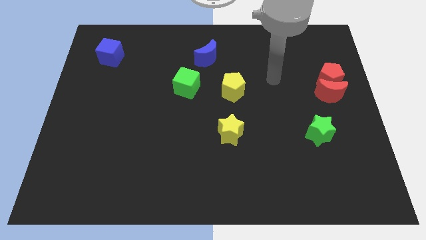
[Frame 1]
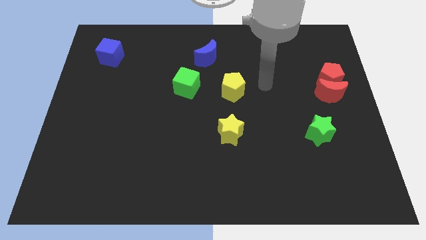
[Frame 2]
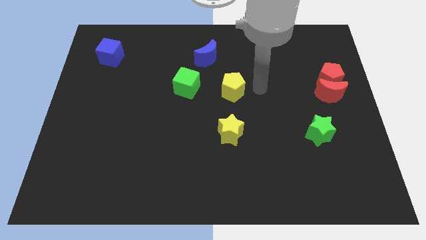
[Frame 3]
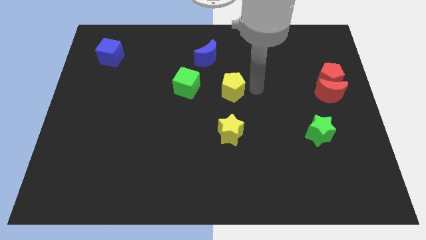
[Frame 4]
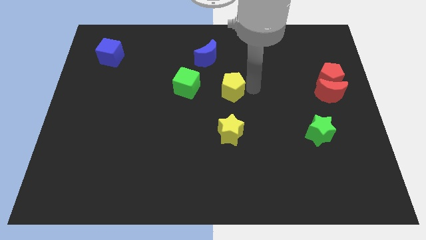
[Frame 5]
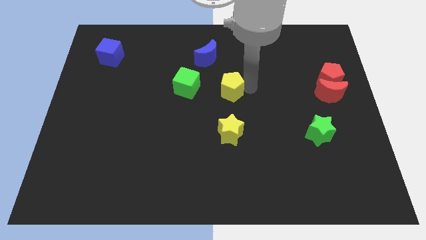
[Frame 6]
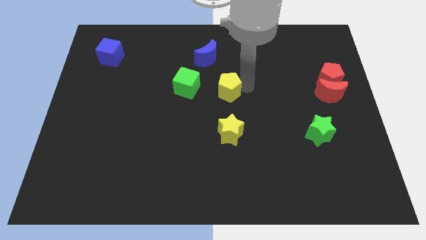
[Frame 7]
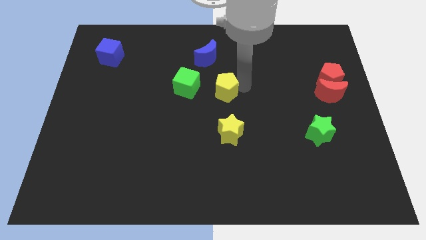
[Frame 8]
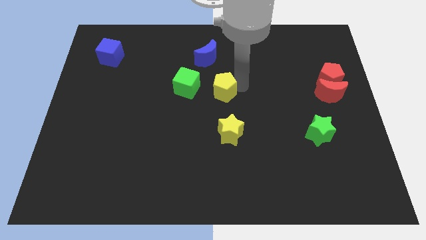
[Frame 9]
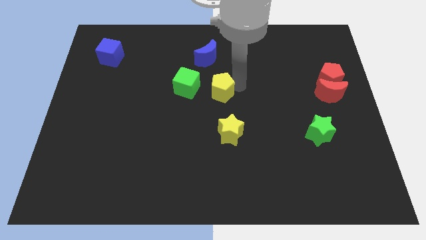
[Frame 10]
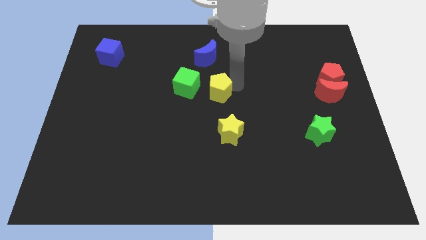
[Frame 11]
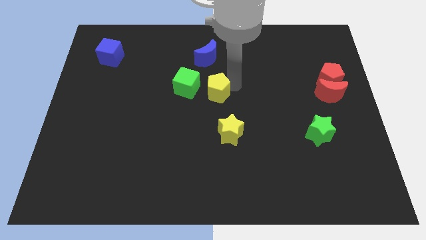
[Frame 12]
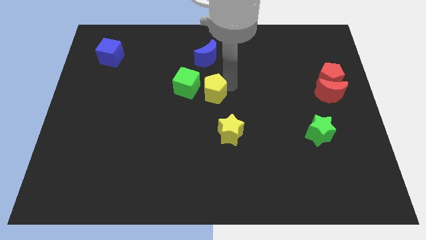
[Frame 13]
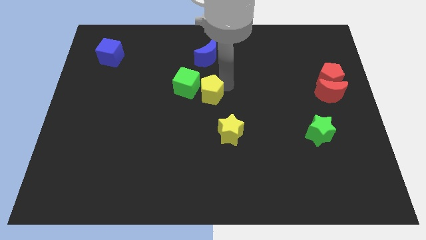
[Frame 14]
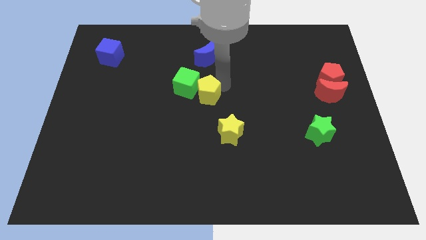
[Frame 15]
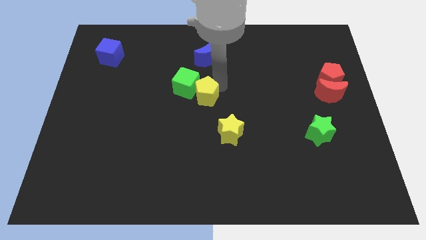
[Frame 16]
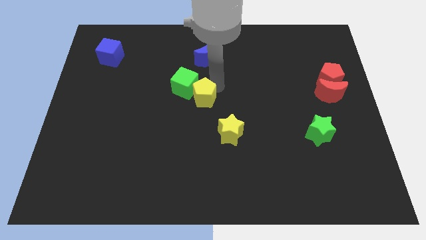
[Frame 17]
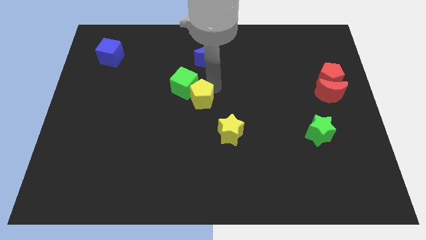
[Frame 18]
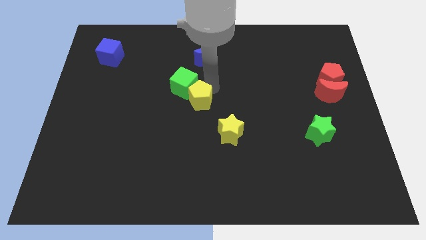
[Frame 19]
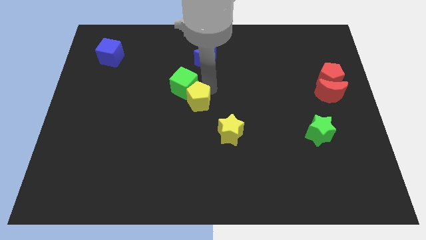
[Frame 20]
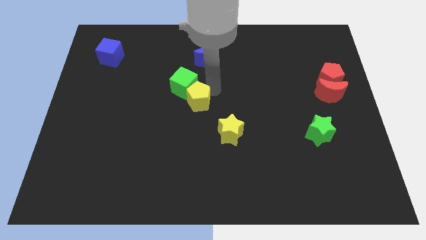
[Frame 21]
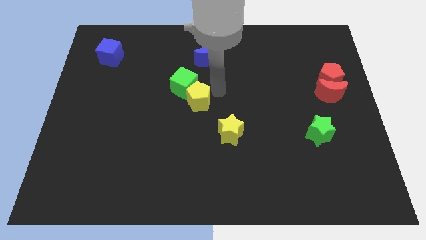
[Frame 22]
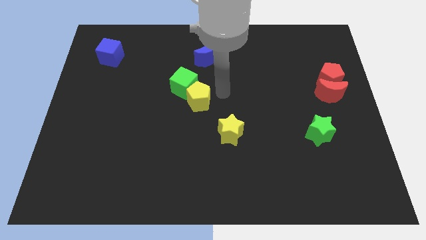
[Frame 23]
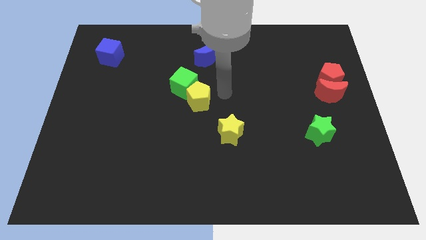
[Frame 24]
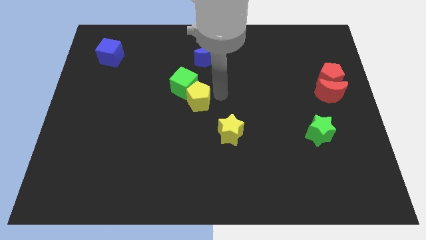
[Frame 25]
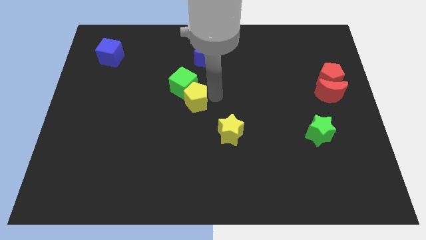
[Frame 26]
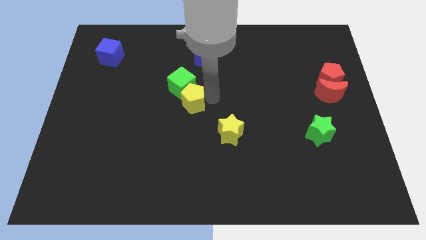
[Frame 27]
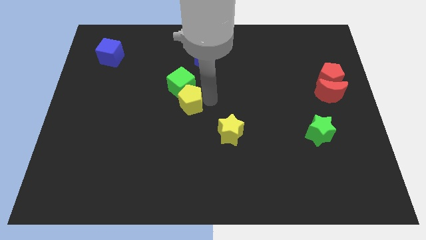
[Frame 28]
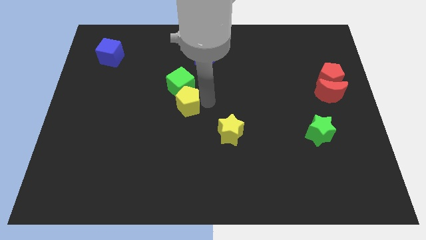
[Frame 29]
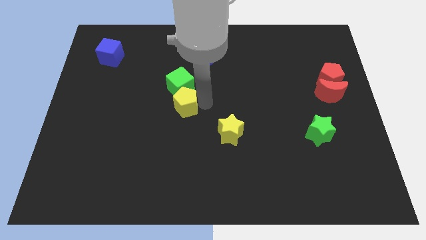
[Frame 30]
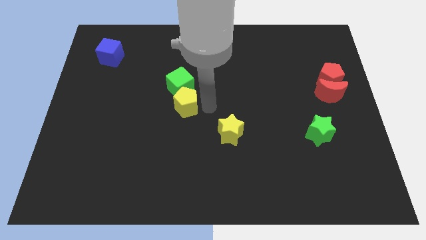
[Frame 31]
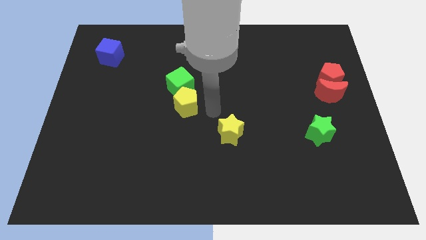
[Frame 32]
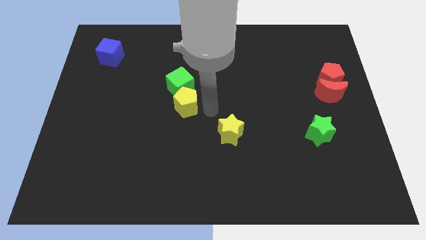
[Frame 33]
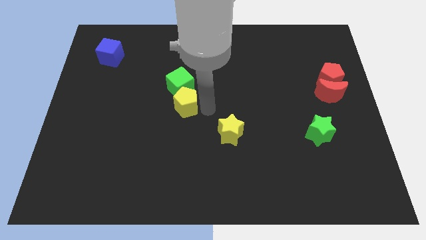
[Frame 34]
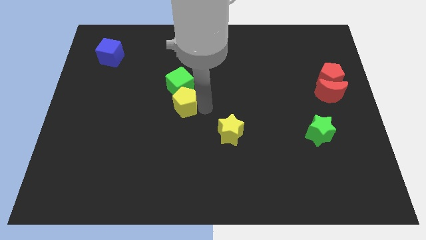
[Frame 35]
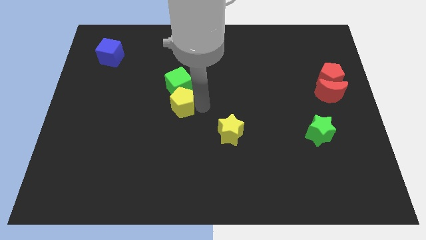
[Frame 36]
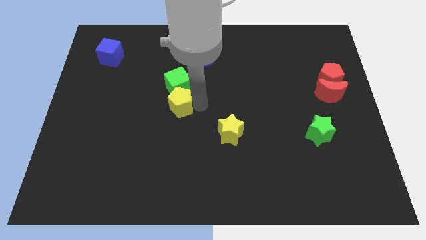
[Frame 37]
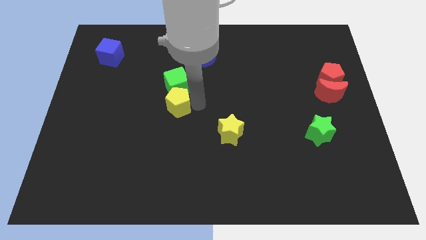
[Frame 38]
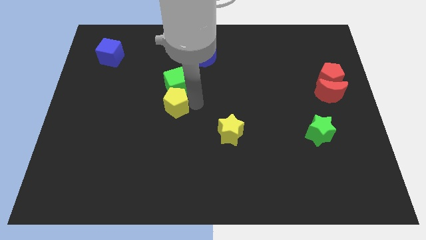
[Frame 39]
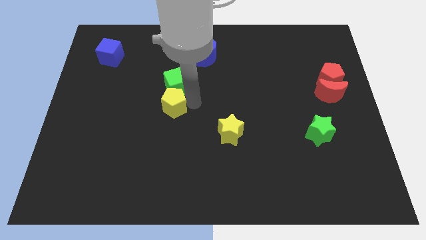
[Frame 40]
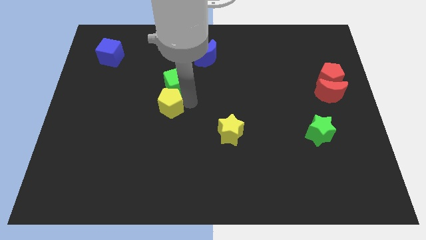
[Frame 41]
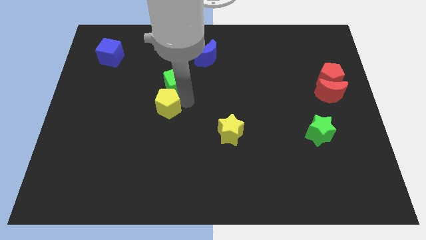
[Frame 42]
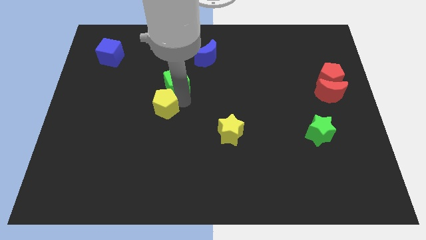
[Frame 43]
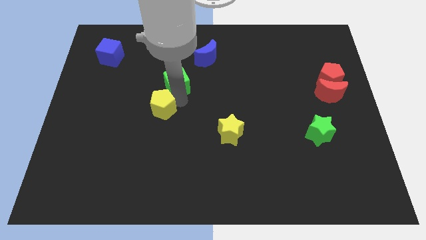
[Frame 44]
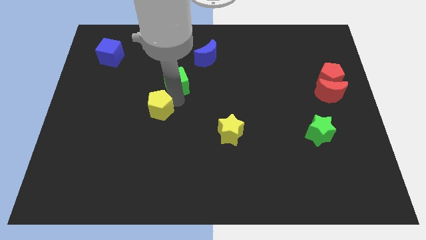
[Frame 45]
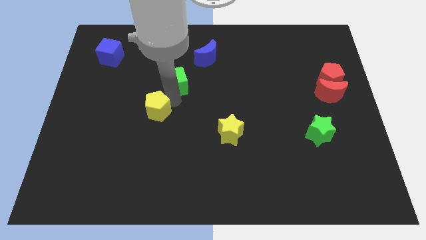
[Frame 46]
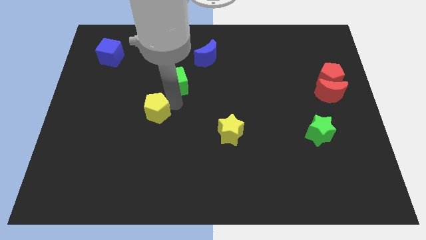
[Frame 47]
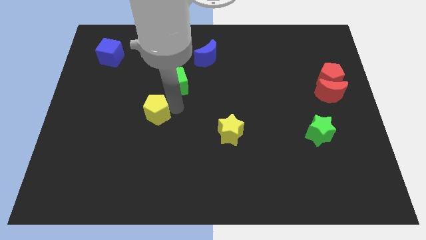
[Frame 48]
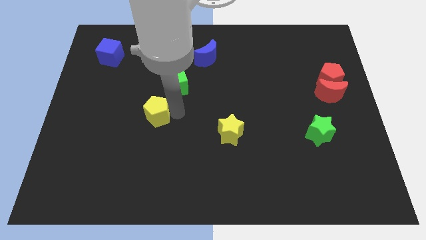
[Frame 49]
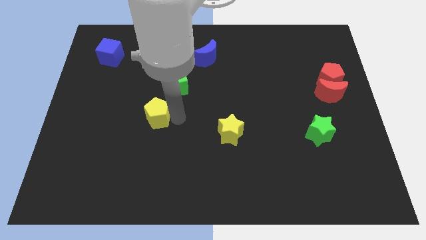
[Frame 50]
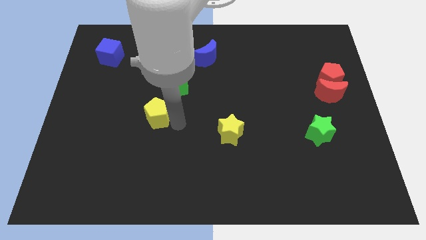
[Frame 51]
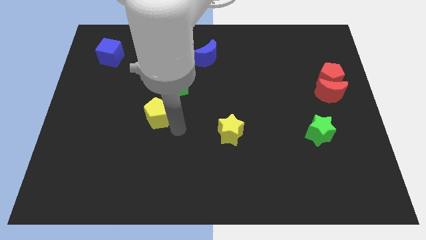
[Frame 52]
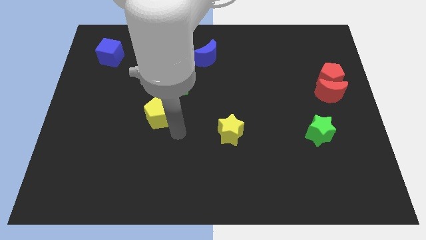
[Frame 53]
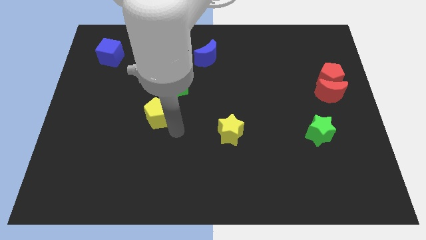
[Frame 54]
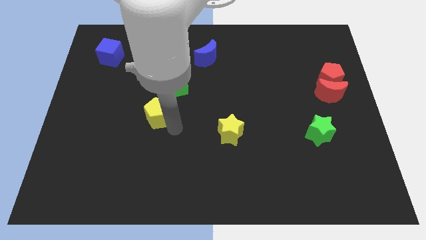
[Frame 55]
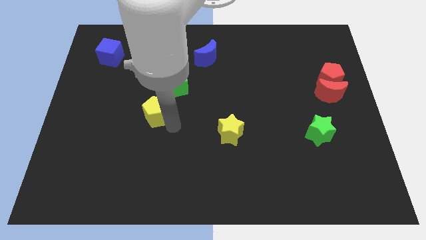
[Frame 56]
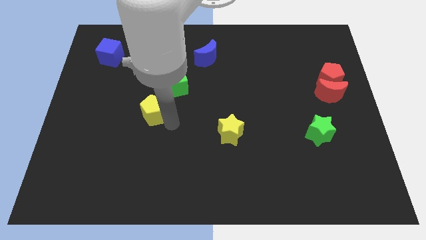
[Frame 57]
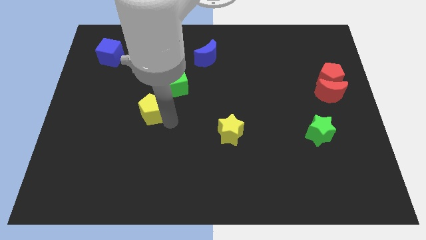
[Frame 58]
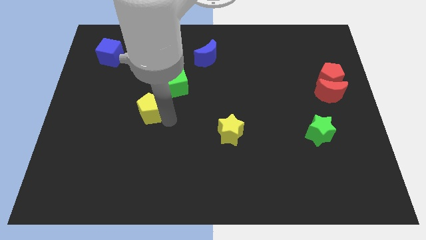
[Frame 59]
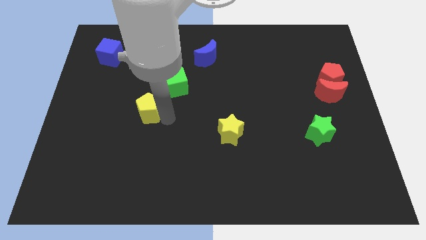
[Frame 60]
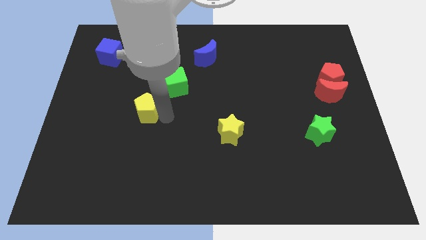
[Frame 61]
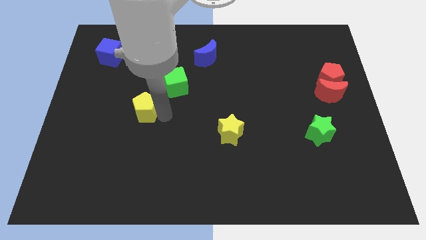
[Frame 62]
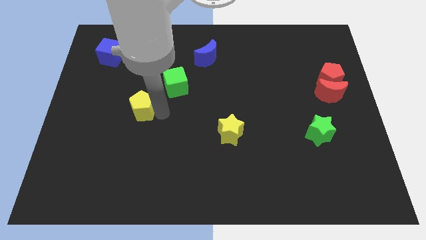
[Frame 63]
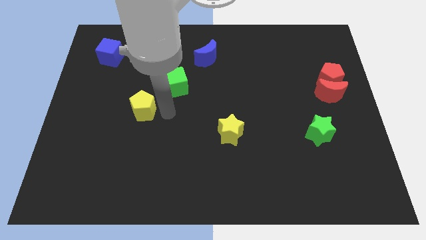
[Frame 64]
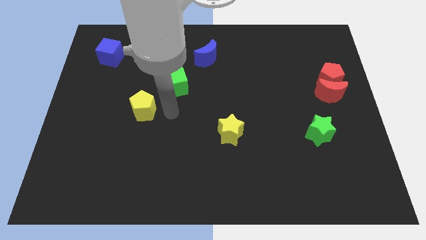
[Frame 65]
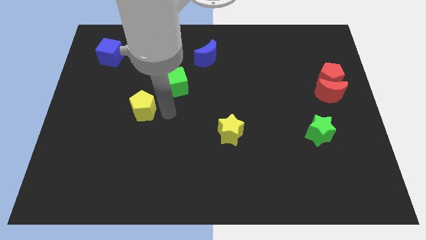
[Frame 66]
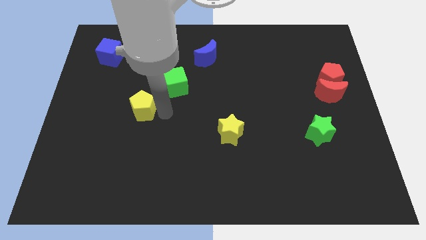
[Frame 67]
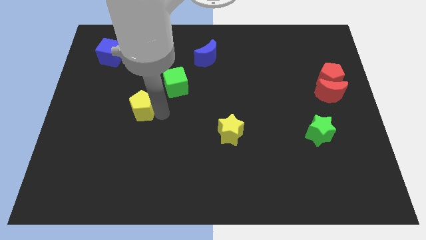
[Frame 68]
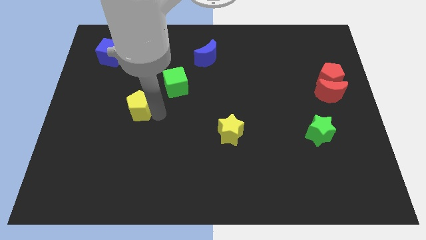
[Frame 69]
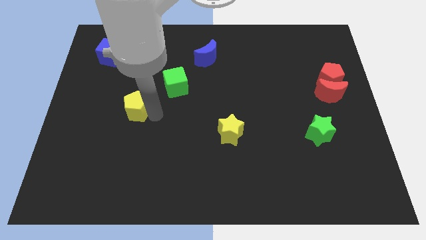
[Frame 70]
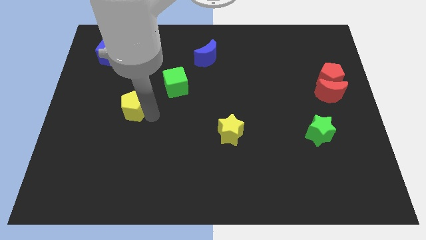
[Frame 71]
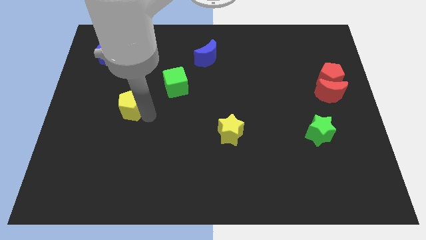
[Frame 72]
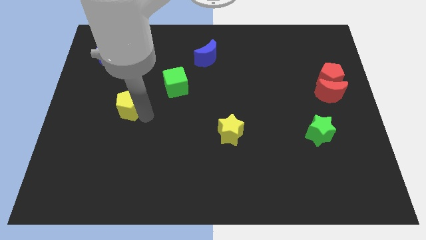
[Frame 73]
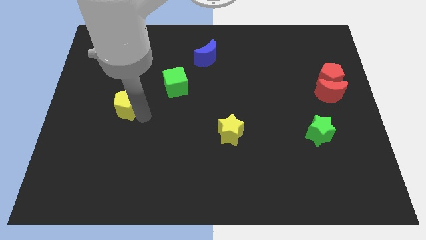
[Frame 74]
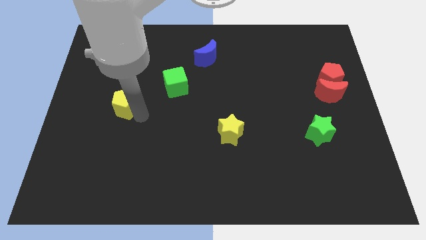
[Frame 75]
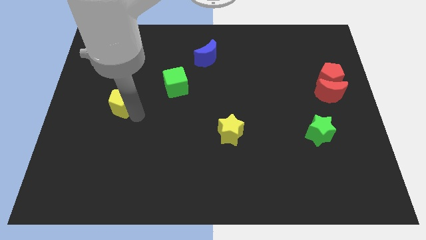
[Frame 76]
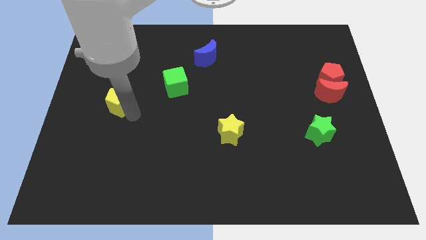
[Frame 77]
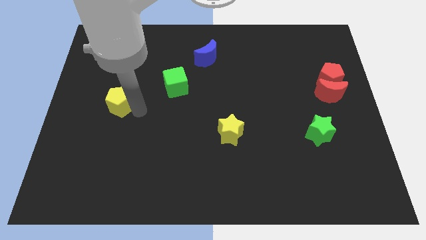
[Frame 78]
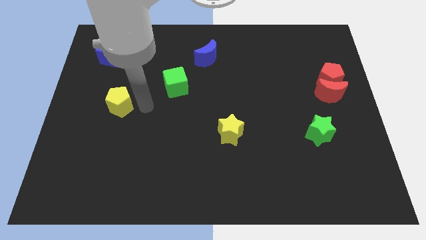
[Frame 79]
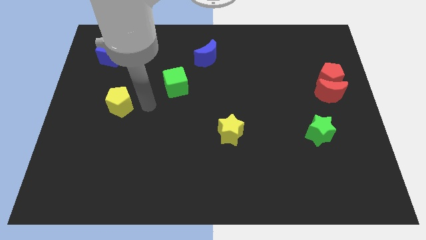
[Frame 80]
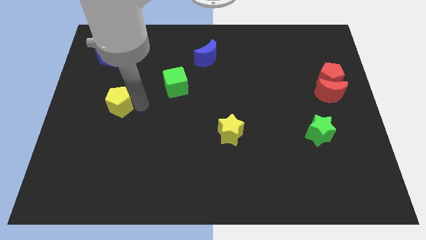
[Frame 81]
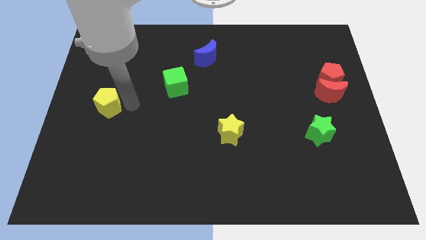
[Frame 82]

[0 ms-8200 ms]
move the yellow pentagon to the left side
